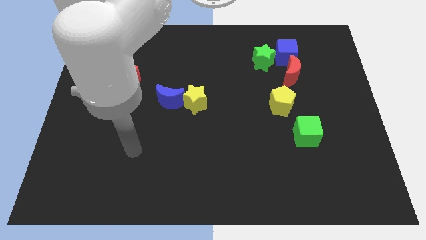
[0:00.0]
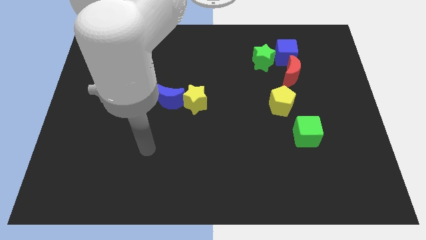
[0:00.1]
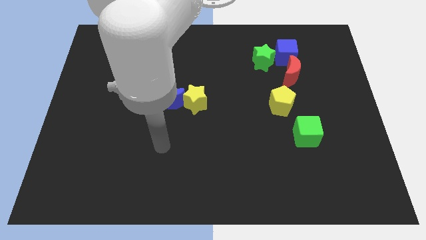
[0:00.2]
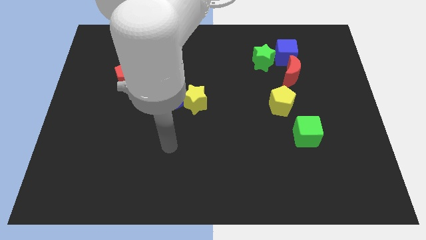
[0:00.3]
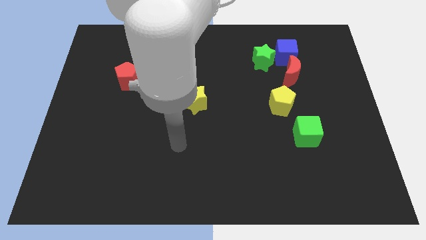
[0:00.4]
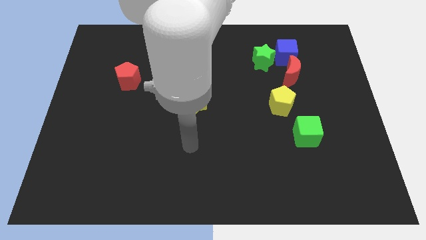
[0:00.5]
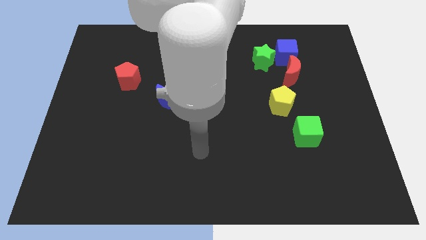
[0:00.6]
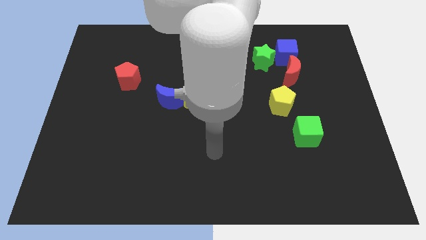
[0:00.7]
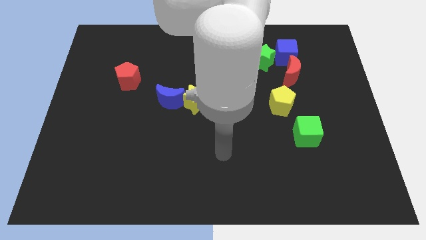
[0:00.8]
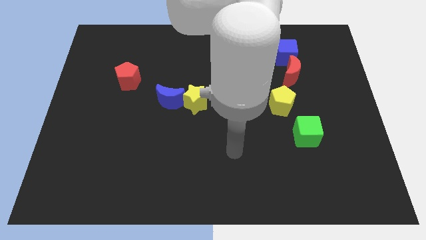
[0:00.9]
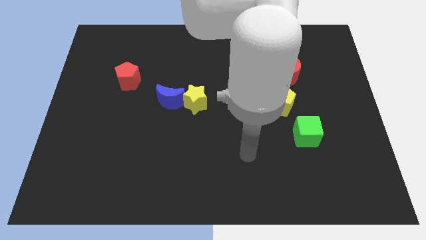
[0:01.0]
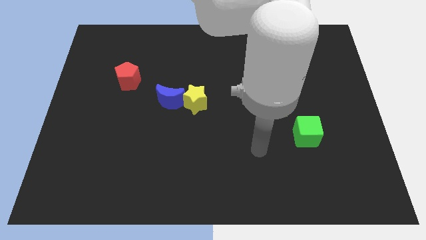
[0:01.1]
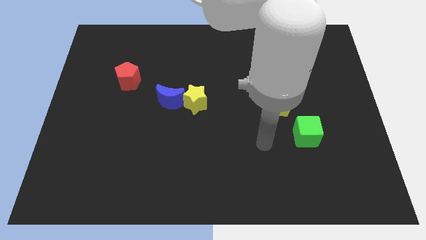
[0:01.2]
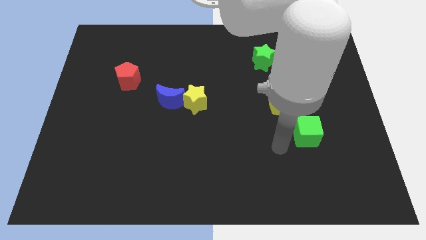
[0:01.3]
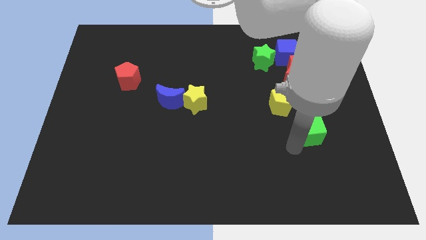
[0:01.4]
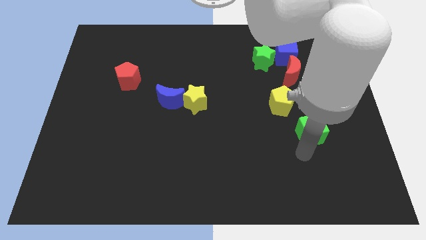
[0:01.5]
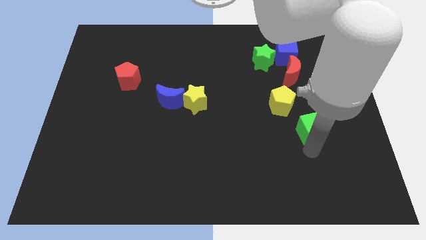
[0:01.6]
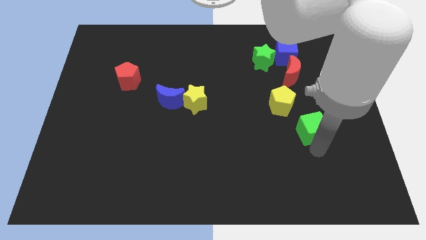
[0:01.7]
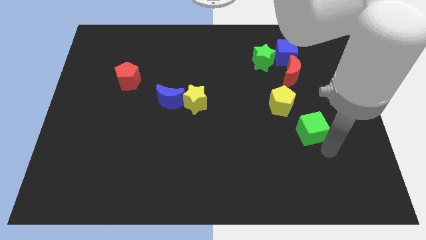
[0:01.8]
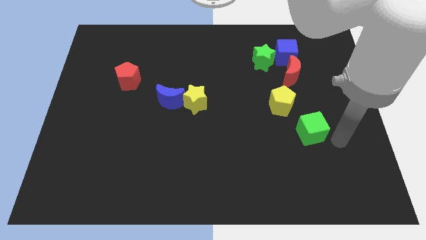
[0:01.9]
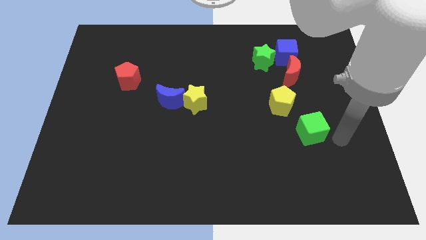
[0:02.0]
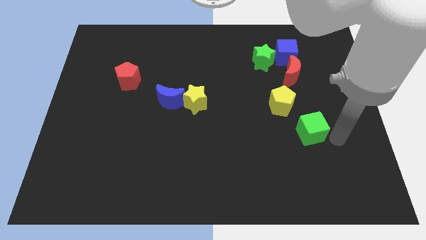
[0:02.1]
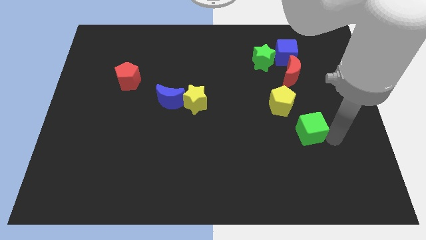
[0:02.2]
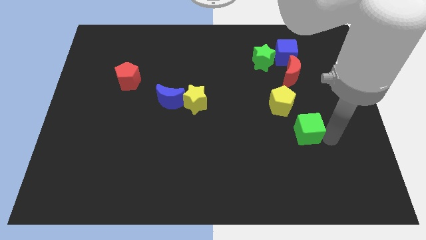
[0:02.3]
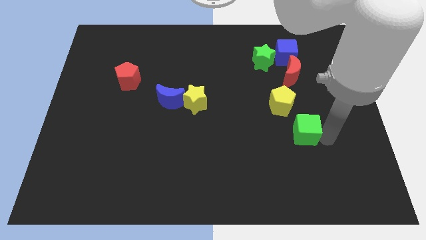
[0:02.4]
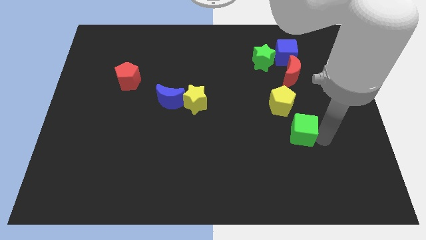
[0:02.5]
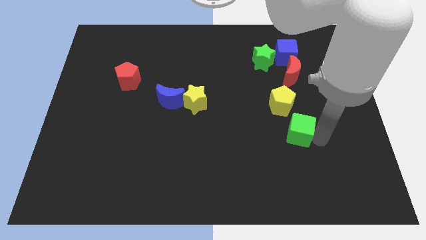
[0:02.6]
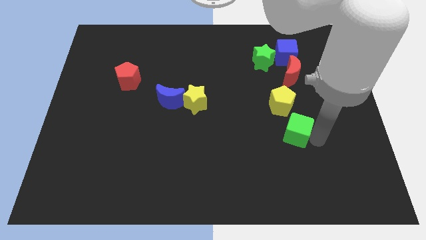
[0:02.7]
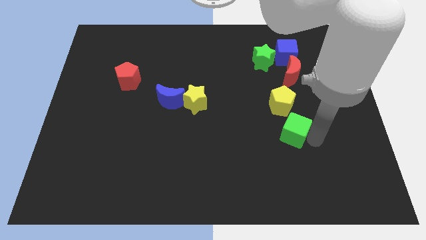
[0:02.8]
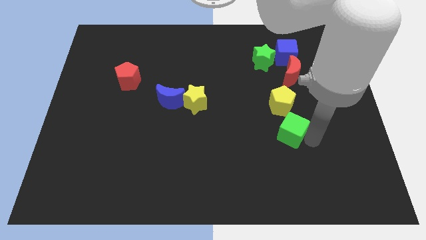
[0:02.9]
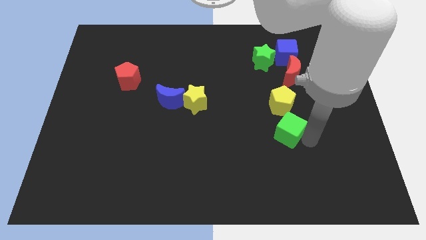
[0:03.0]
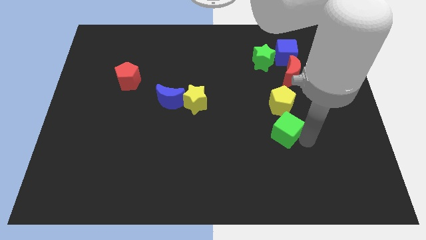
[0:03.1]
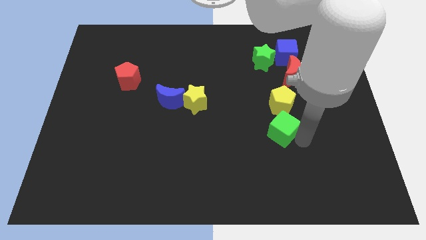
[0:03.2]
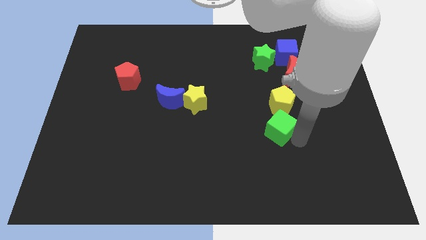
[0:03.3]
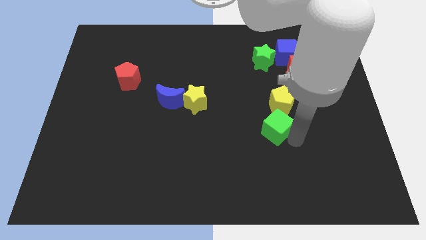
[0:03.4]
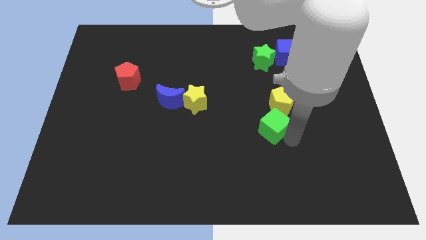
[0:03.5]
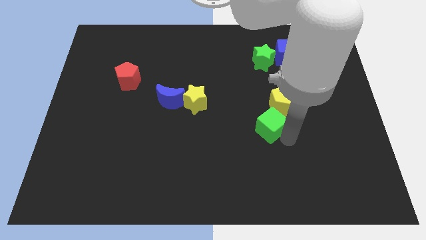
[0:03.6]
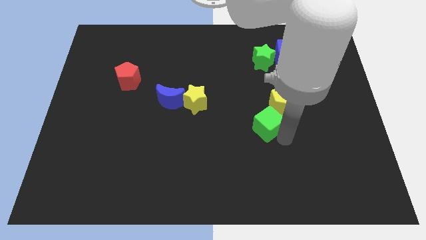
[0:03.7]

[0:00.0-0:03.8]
slightly push the green cube up and then left

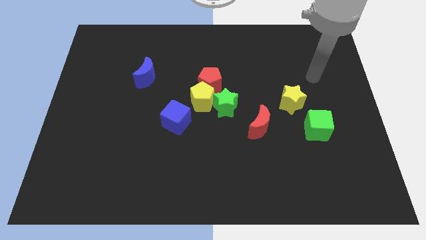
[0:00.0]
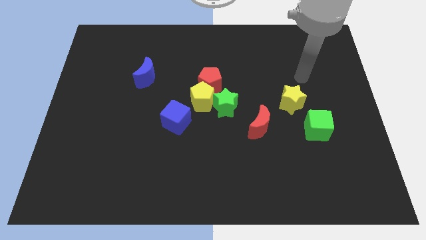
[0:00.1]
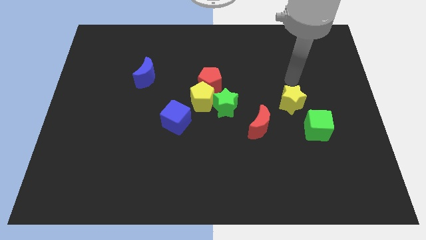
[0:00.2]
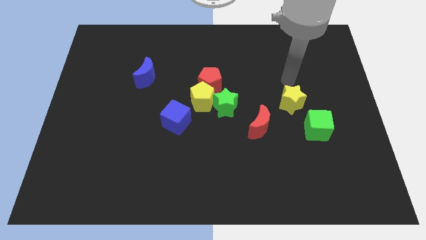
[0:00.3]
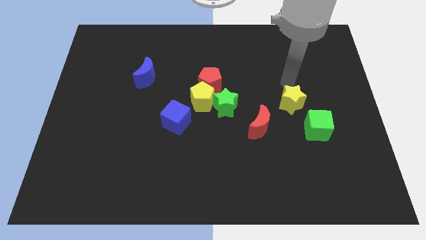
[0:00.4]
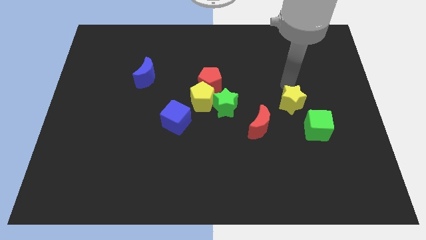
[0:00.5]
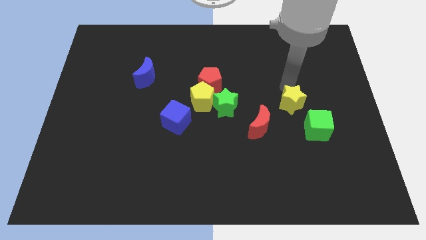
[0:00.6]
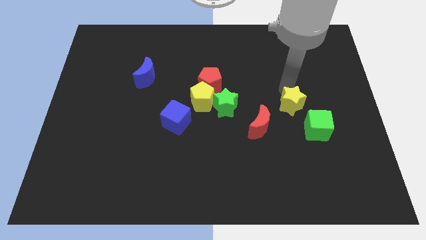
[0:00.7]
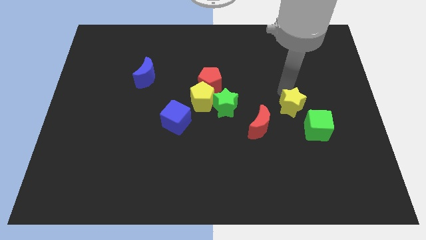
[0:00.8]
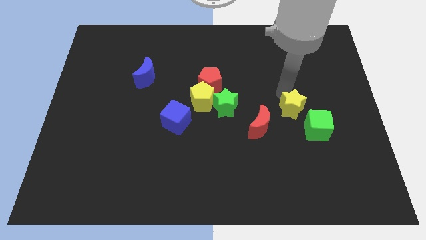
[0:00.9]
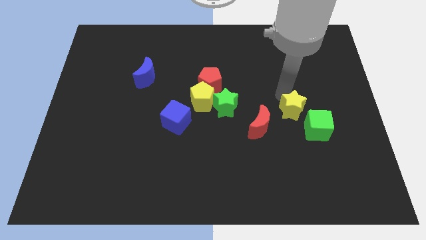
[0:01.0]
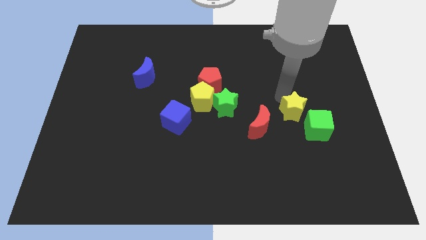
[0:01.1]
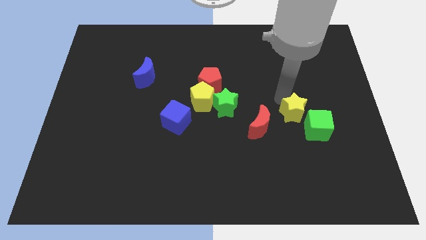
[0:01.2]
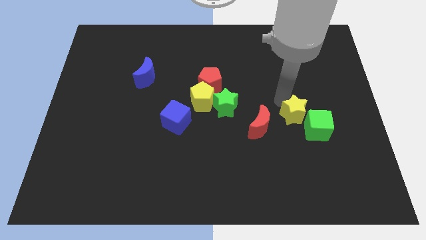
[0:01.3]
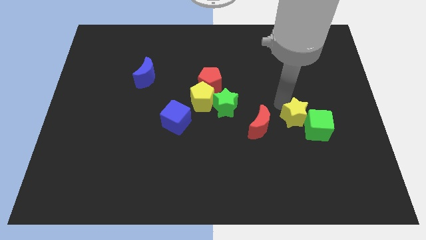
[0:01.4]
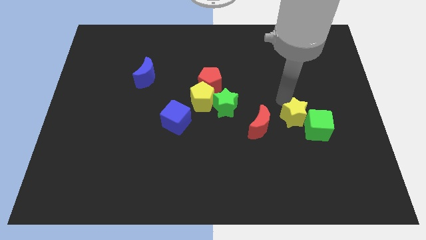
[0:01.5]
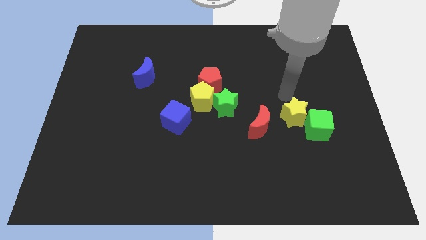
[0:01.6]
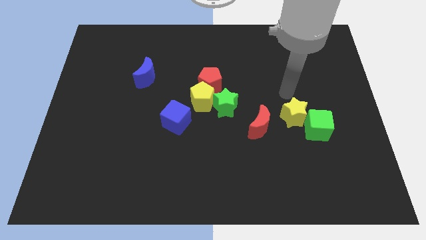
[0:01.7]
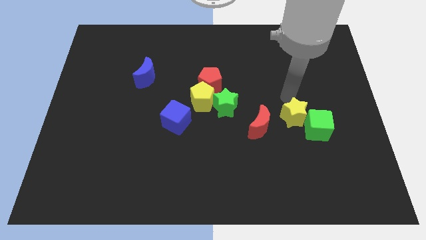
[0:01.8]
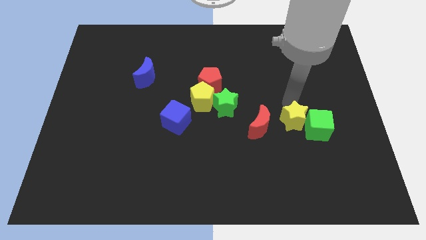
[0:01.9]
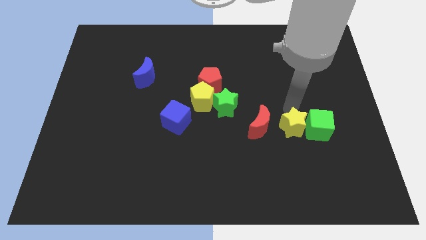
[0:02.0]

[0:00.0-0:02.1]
move the yellow star a little bit down

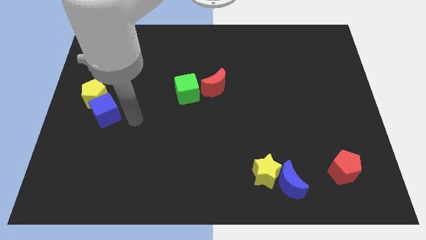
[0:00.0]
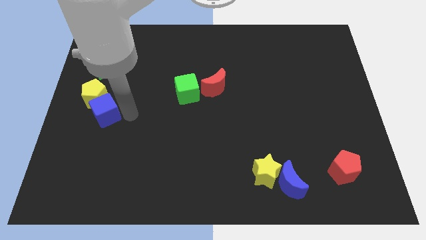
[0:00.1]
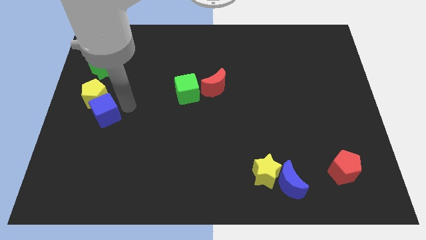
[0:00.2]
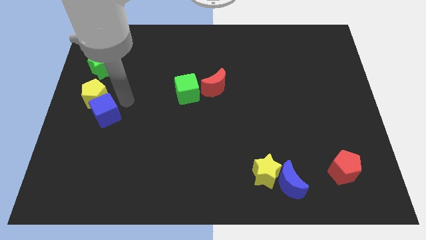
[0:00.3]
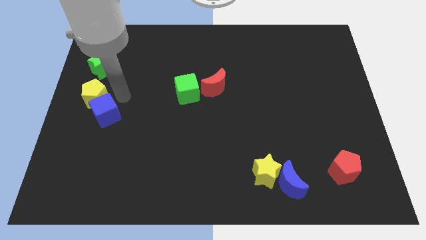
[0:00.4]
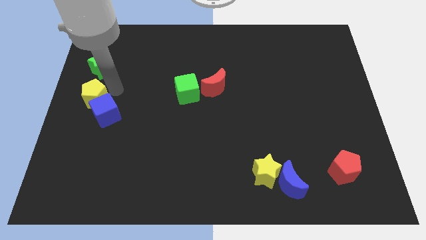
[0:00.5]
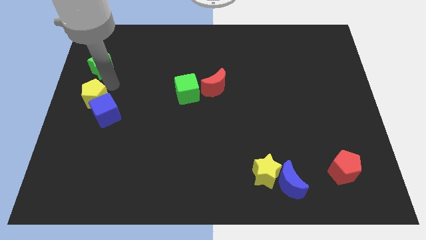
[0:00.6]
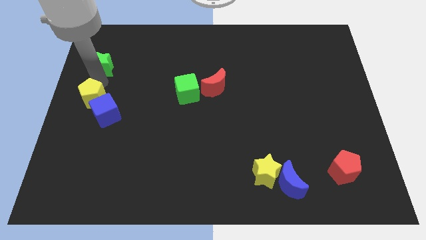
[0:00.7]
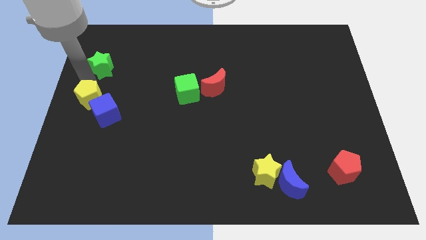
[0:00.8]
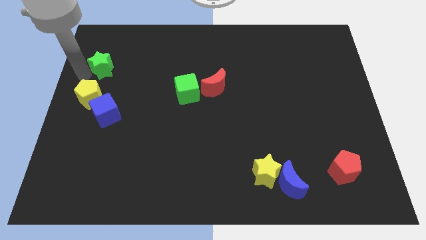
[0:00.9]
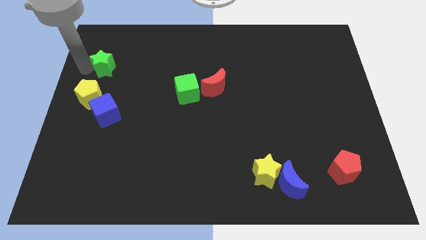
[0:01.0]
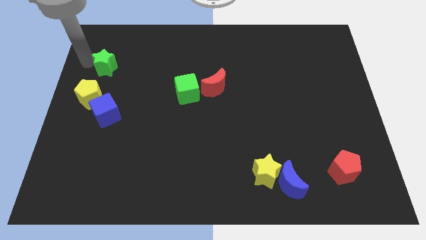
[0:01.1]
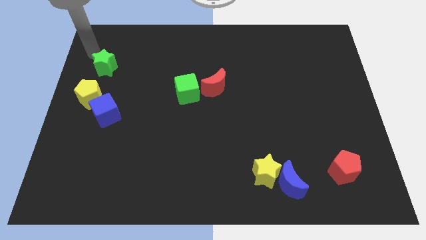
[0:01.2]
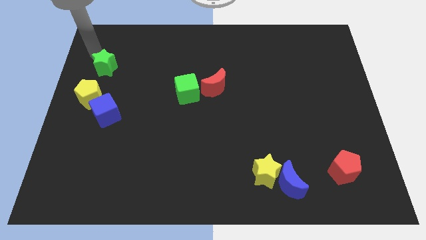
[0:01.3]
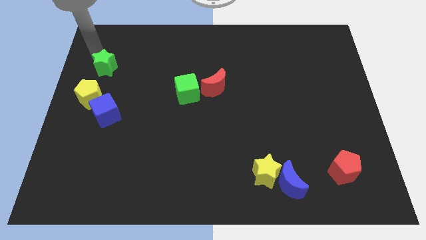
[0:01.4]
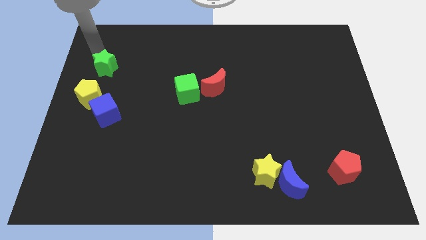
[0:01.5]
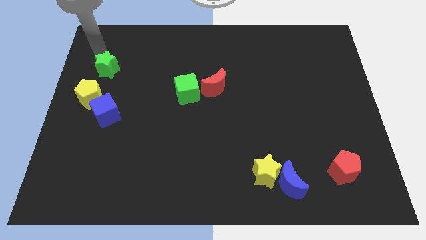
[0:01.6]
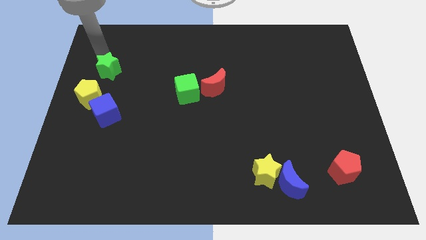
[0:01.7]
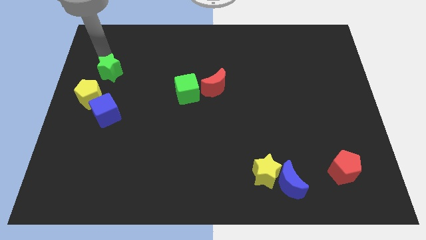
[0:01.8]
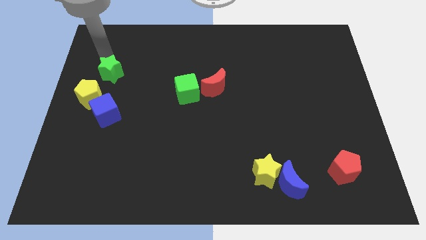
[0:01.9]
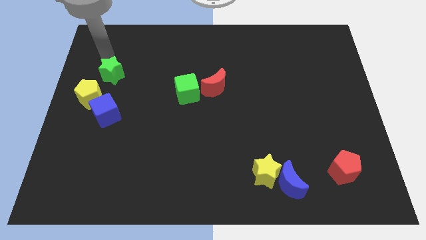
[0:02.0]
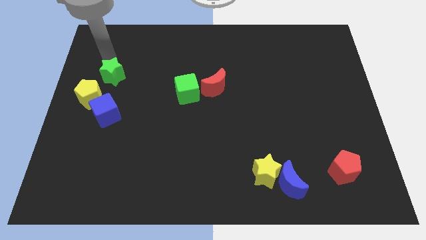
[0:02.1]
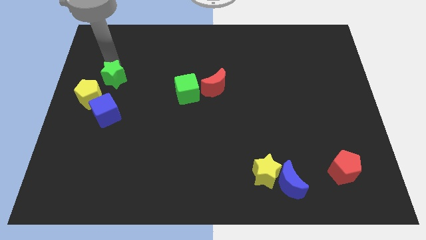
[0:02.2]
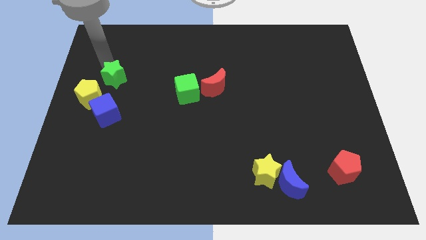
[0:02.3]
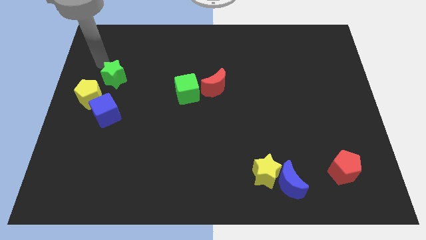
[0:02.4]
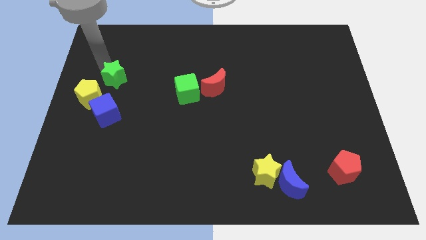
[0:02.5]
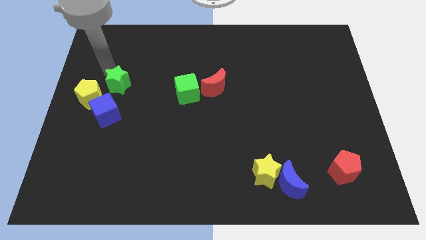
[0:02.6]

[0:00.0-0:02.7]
slide the green star a little bit diagonally downwards and to the right
